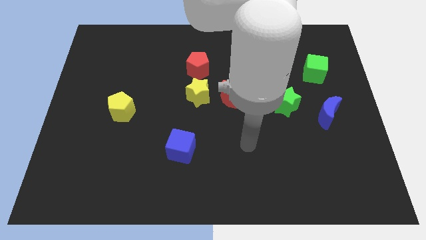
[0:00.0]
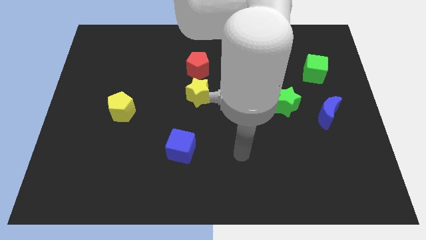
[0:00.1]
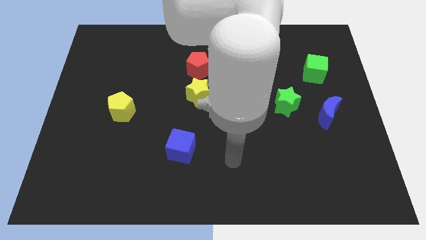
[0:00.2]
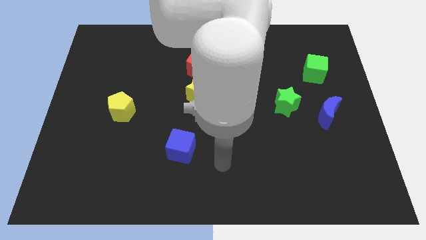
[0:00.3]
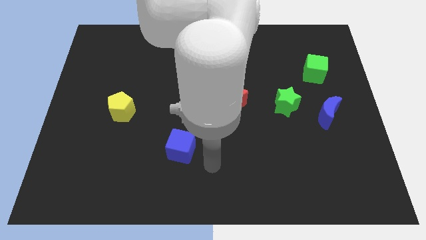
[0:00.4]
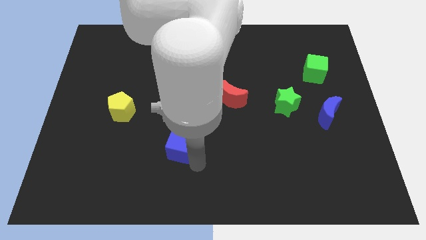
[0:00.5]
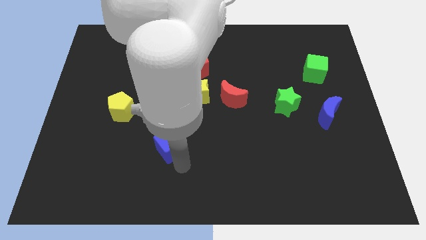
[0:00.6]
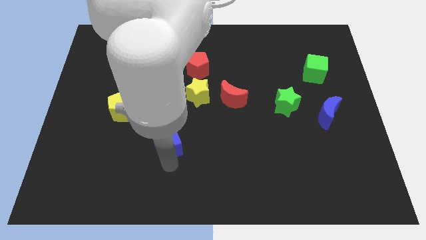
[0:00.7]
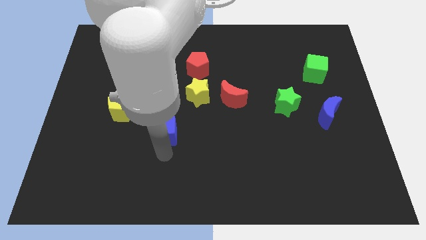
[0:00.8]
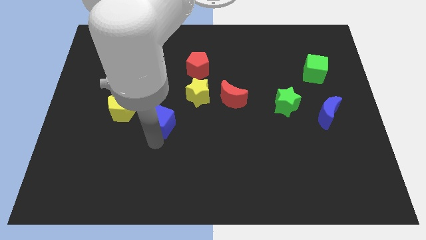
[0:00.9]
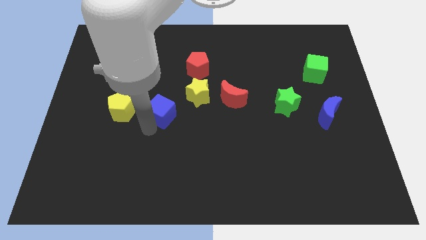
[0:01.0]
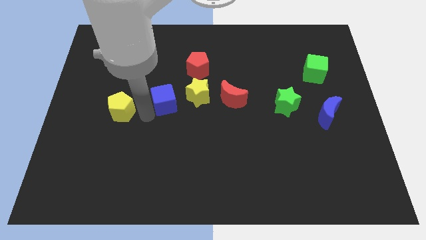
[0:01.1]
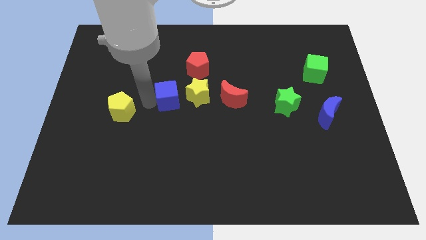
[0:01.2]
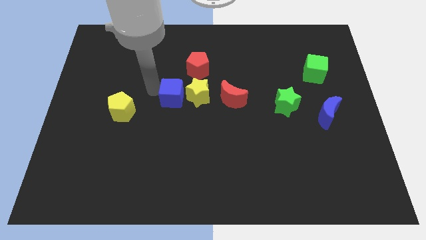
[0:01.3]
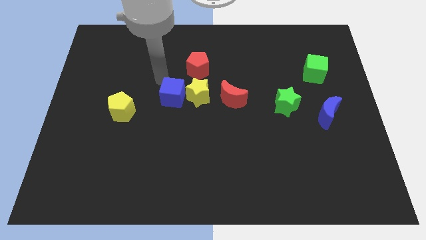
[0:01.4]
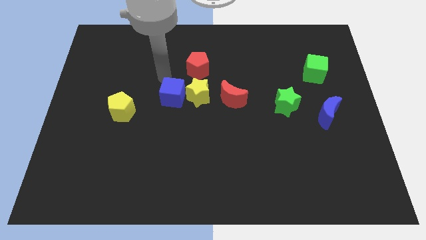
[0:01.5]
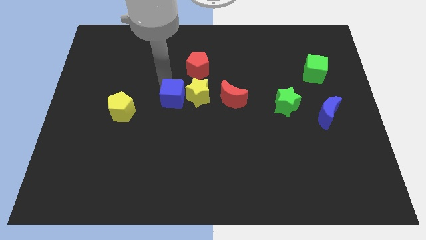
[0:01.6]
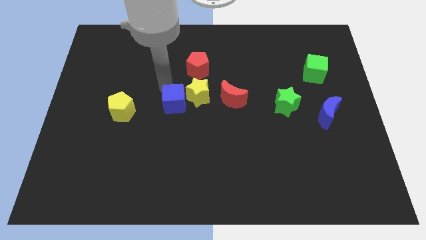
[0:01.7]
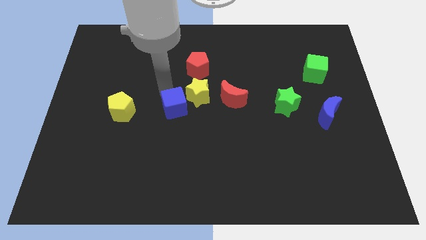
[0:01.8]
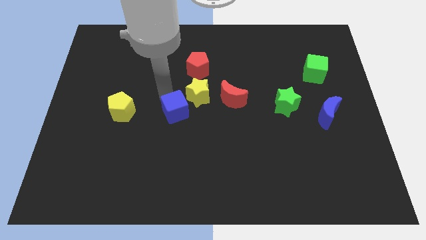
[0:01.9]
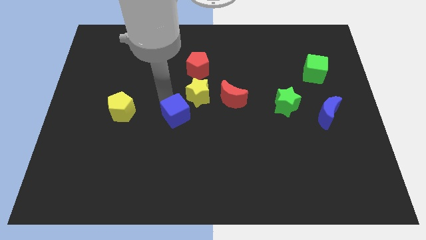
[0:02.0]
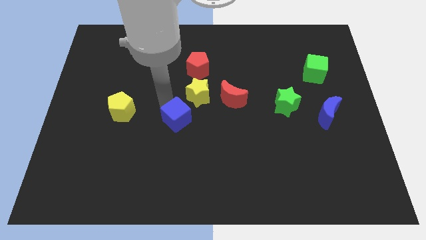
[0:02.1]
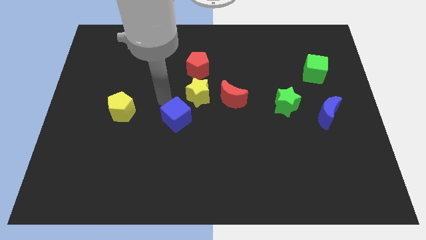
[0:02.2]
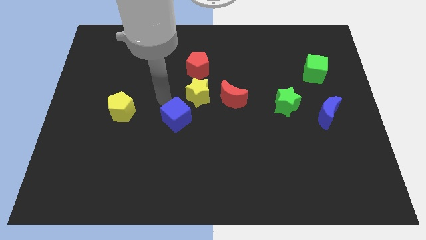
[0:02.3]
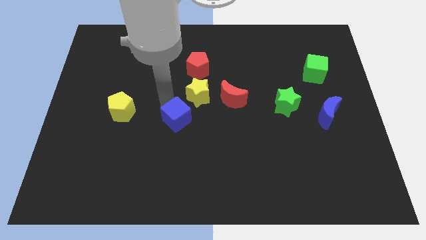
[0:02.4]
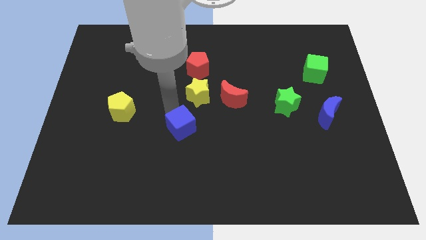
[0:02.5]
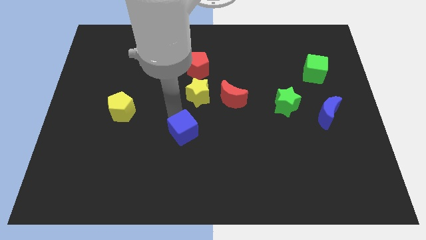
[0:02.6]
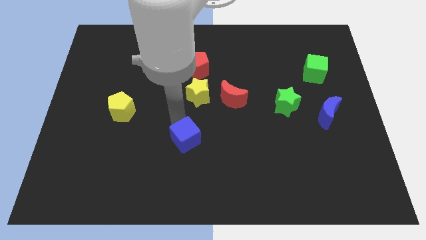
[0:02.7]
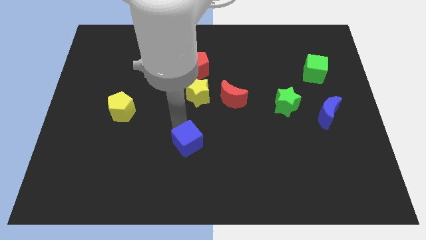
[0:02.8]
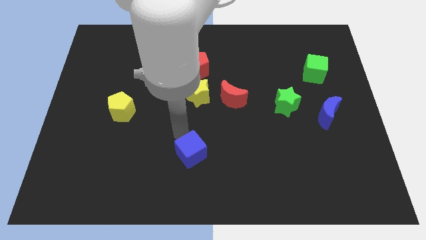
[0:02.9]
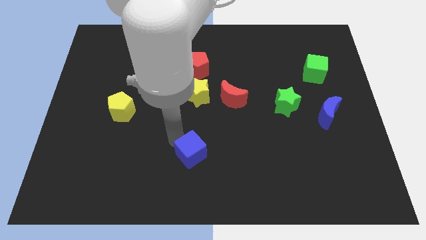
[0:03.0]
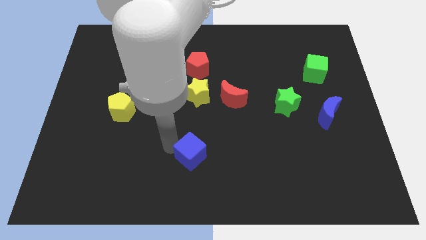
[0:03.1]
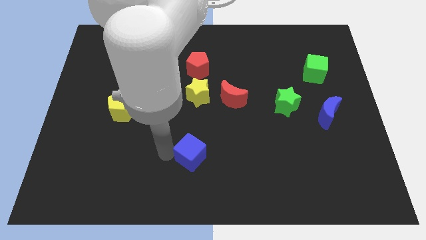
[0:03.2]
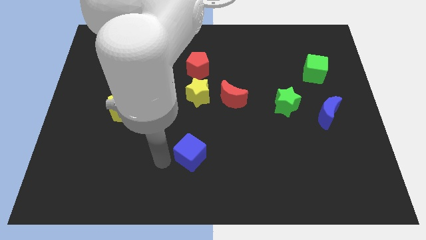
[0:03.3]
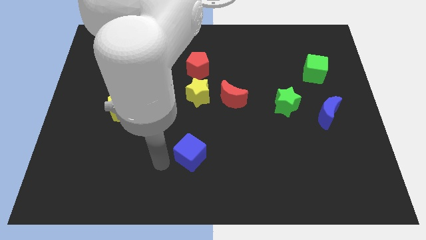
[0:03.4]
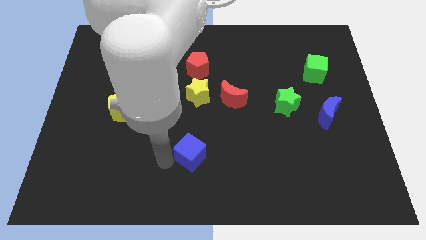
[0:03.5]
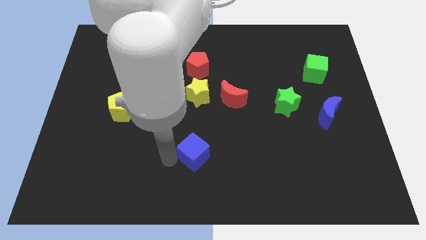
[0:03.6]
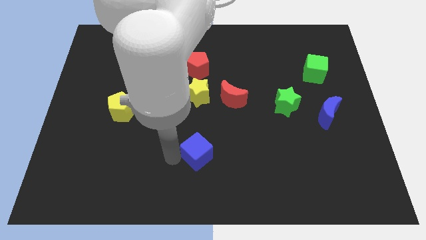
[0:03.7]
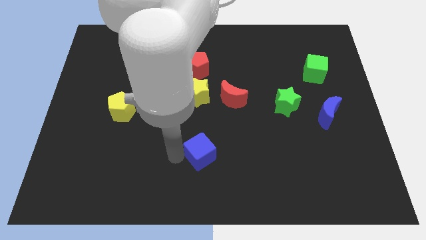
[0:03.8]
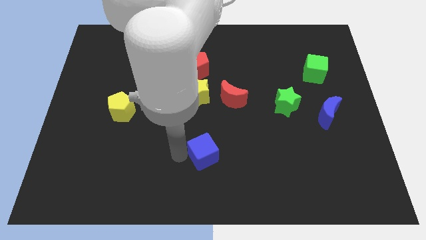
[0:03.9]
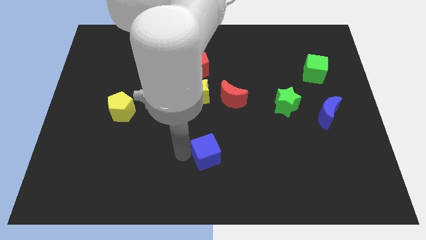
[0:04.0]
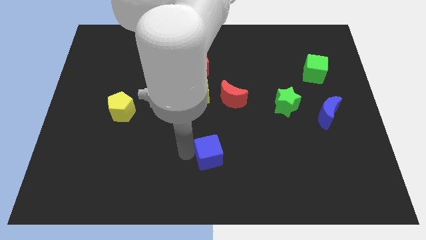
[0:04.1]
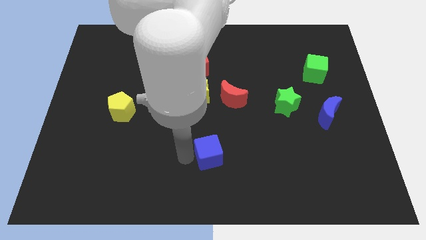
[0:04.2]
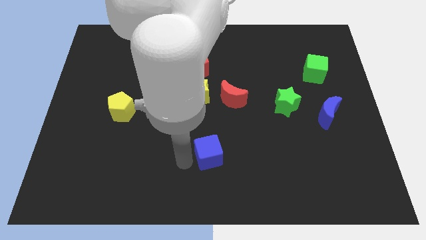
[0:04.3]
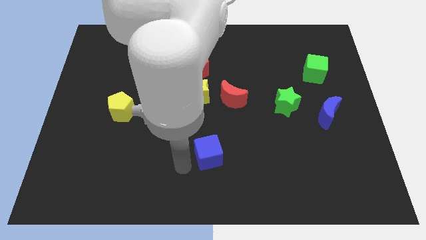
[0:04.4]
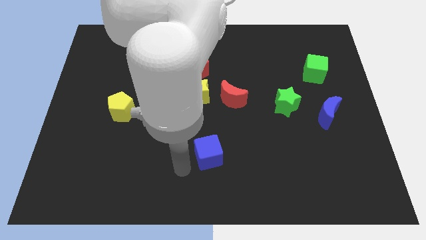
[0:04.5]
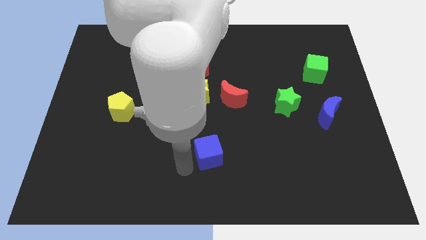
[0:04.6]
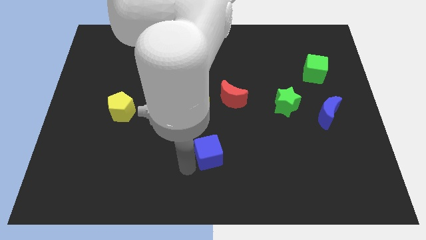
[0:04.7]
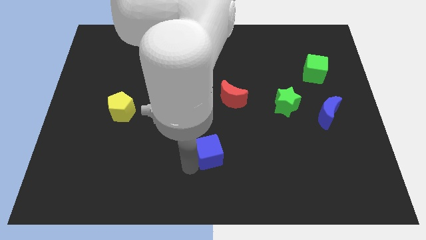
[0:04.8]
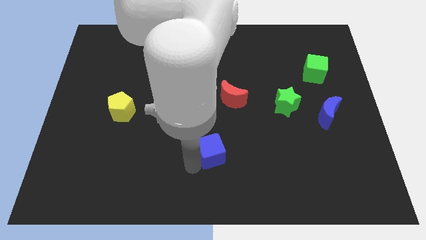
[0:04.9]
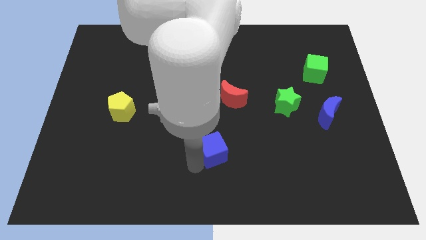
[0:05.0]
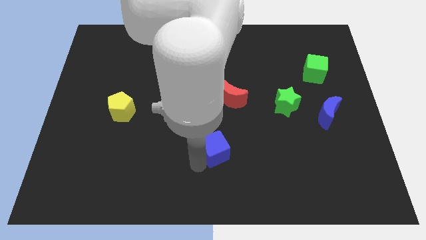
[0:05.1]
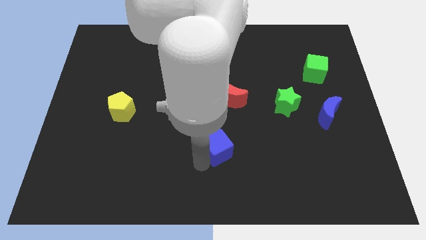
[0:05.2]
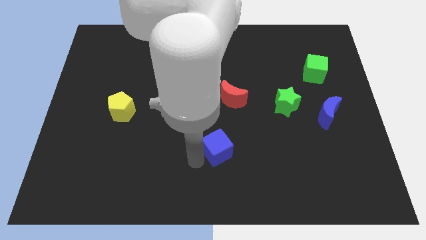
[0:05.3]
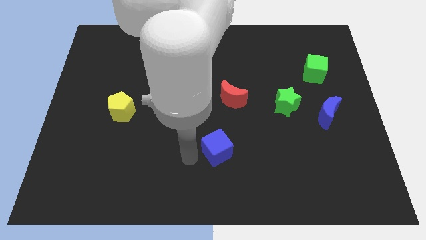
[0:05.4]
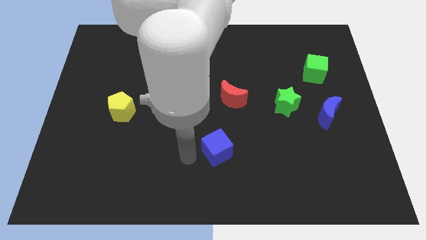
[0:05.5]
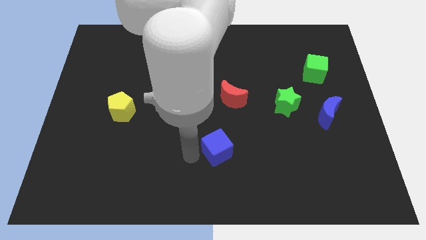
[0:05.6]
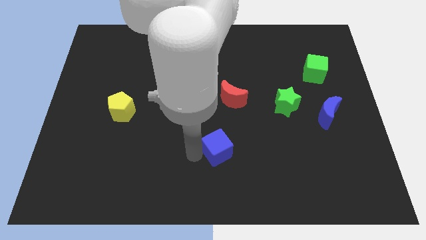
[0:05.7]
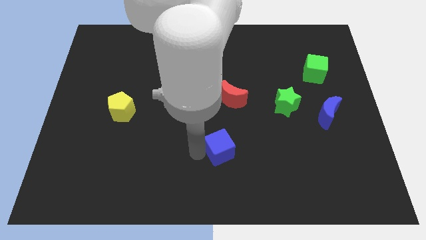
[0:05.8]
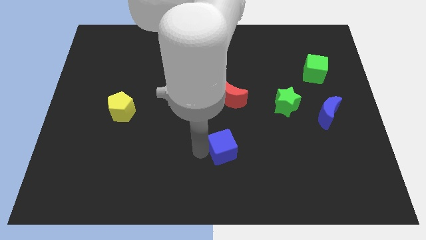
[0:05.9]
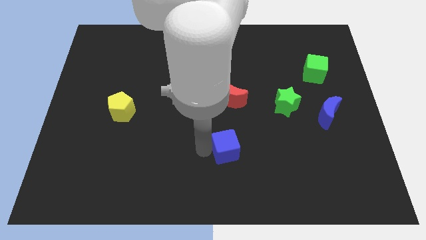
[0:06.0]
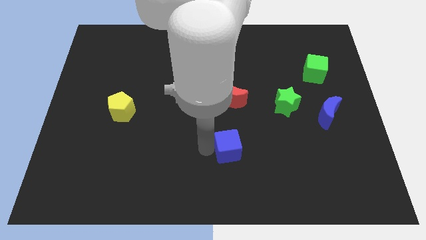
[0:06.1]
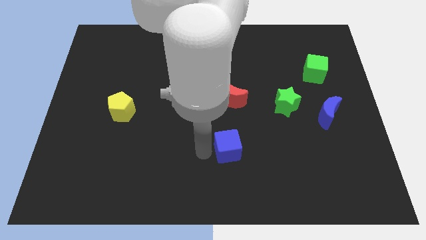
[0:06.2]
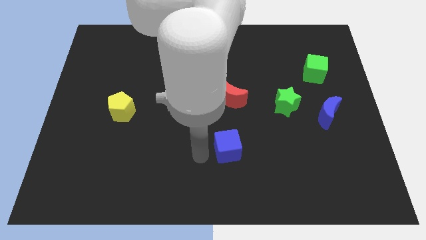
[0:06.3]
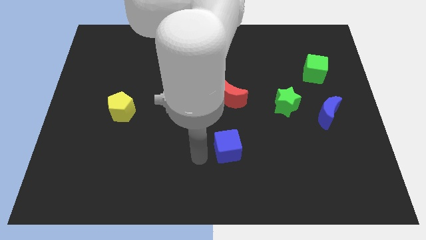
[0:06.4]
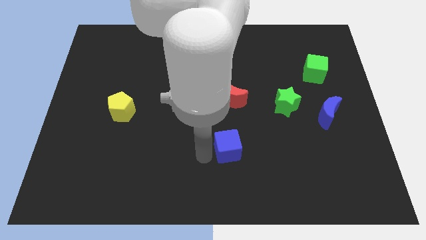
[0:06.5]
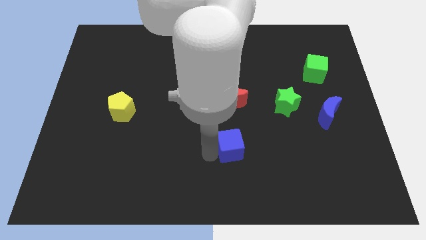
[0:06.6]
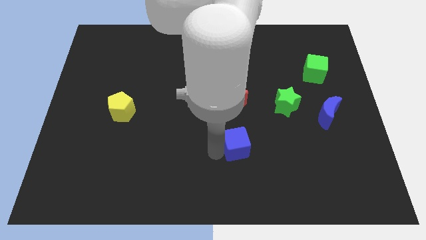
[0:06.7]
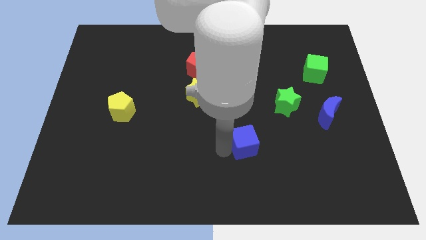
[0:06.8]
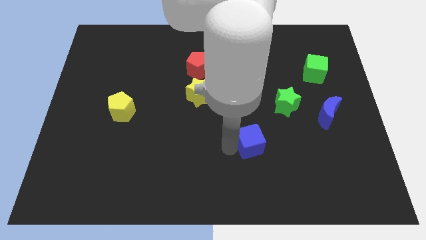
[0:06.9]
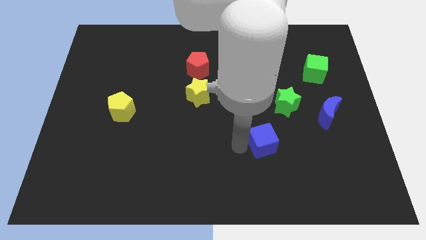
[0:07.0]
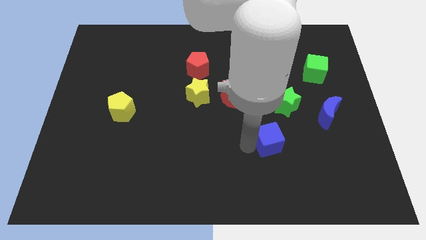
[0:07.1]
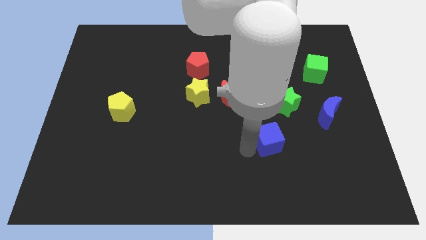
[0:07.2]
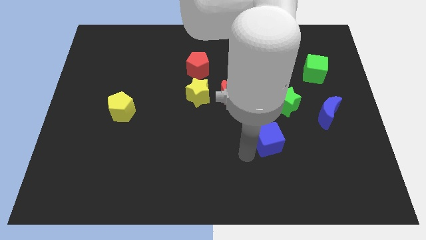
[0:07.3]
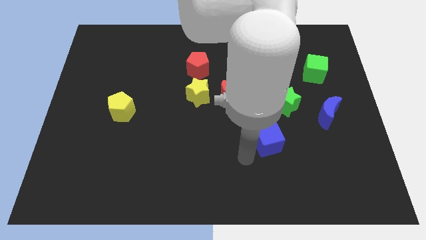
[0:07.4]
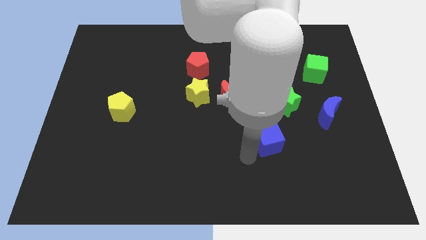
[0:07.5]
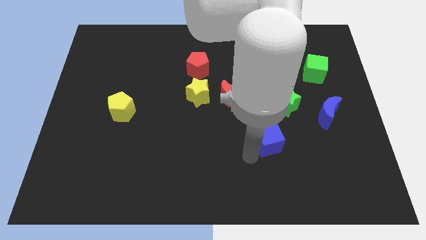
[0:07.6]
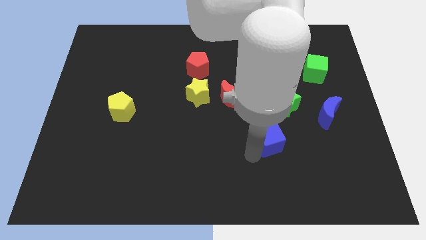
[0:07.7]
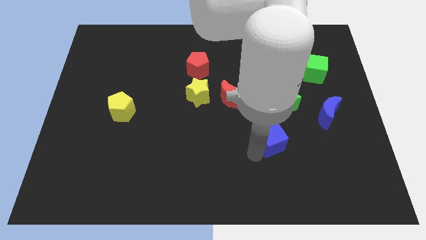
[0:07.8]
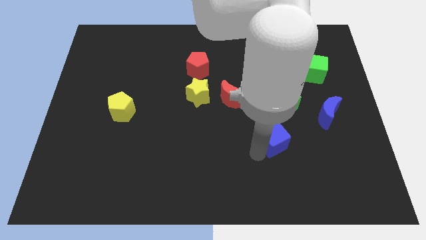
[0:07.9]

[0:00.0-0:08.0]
push the blue cube right
